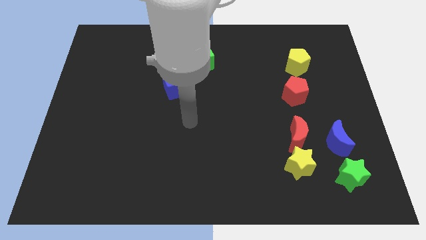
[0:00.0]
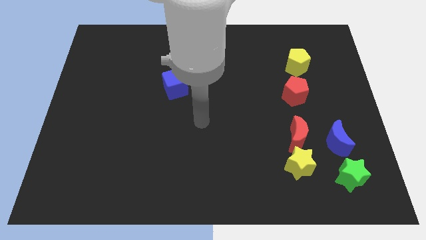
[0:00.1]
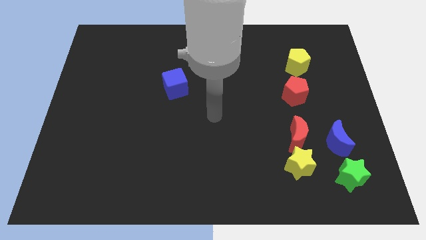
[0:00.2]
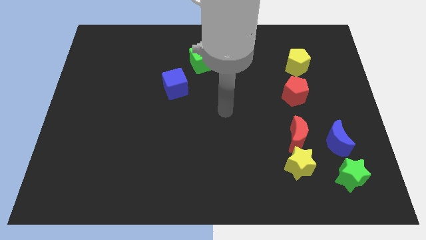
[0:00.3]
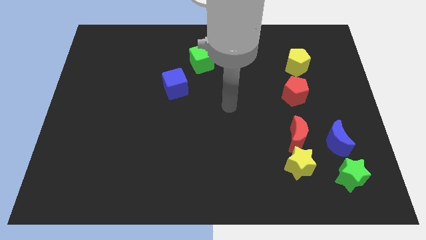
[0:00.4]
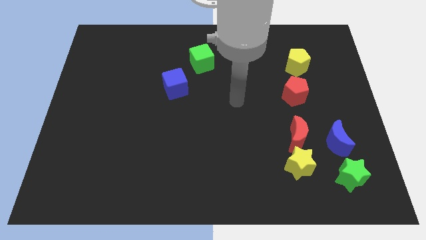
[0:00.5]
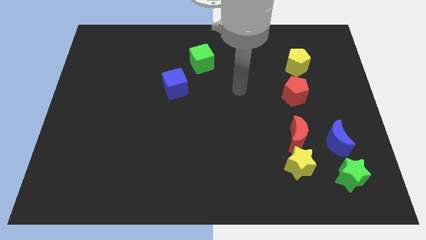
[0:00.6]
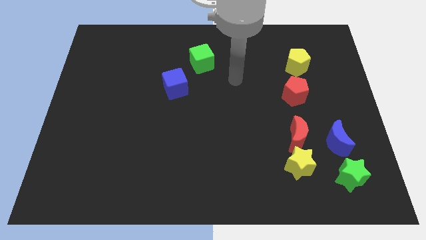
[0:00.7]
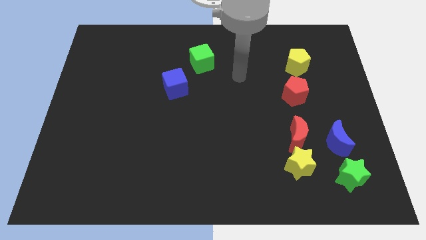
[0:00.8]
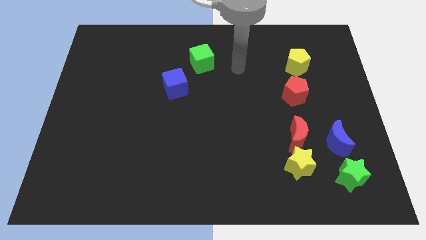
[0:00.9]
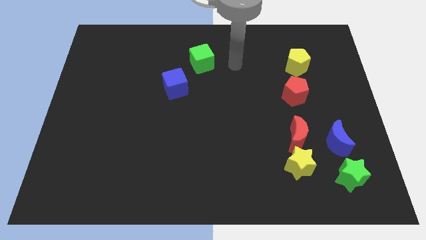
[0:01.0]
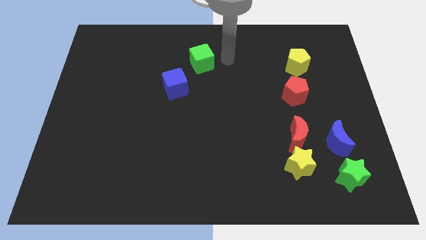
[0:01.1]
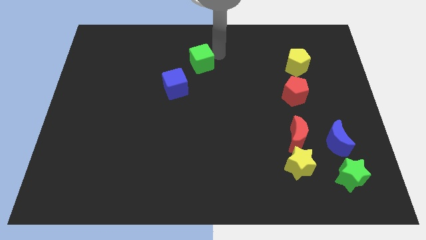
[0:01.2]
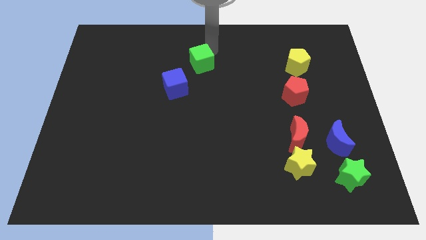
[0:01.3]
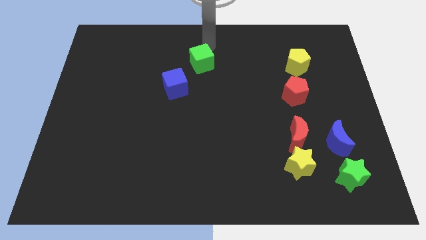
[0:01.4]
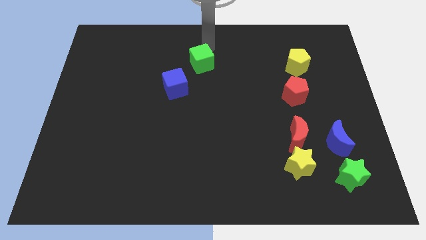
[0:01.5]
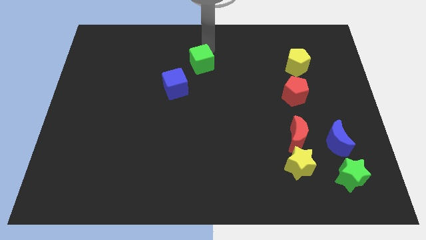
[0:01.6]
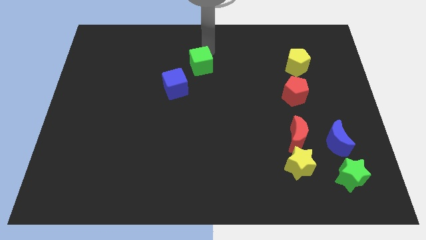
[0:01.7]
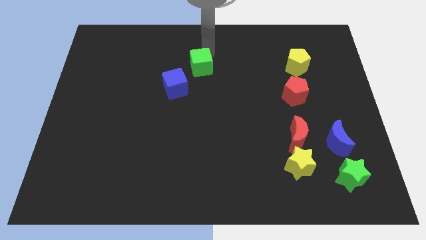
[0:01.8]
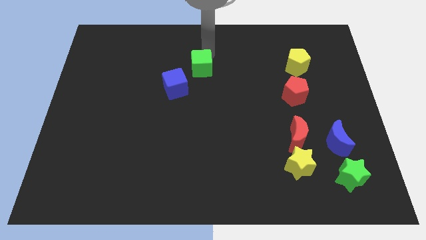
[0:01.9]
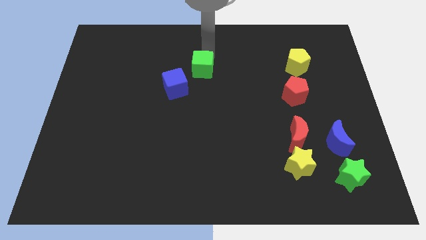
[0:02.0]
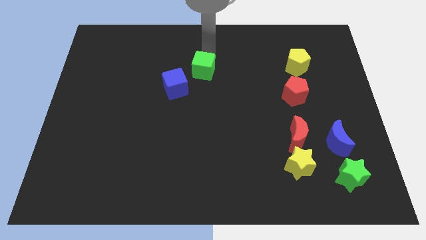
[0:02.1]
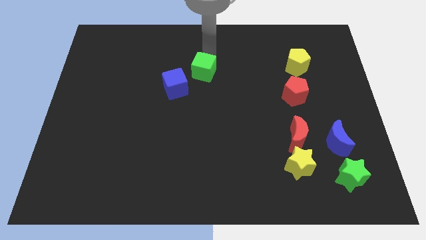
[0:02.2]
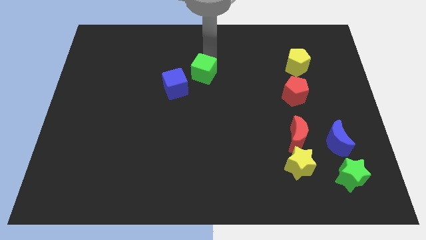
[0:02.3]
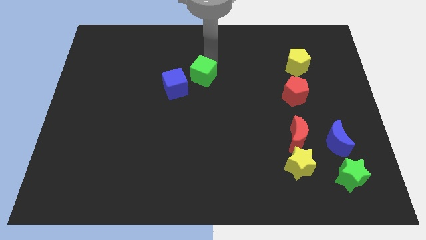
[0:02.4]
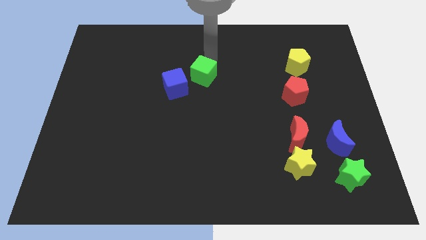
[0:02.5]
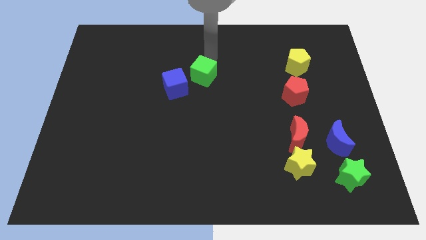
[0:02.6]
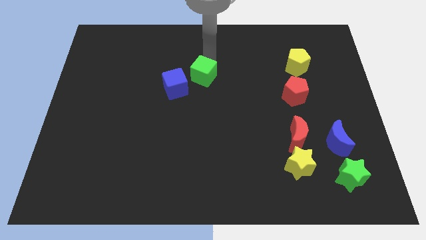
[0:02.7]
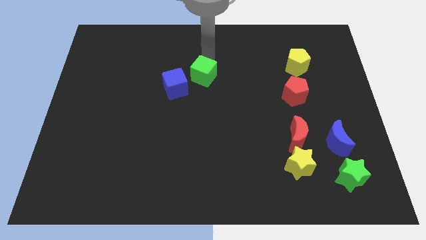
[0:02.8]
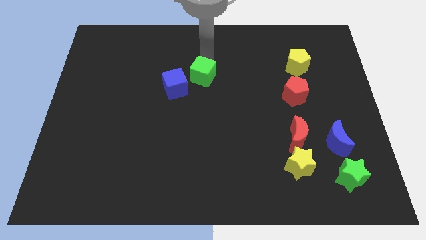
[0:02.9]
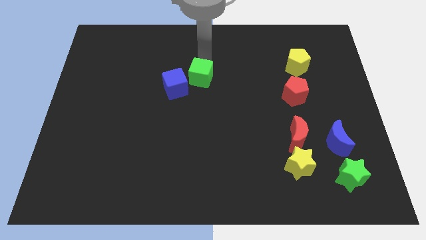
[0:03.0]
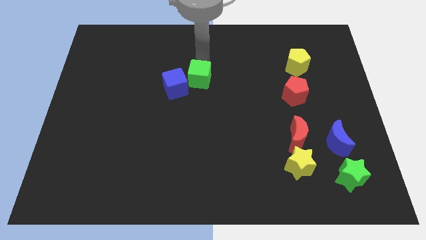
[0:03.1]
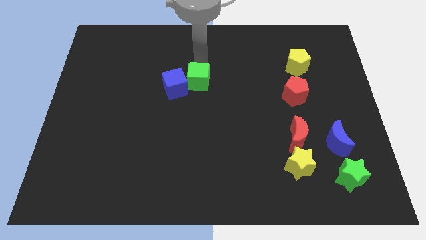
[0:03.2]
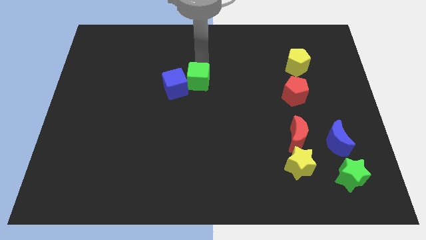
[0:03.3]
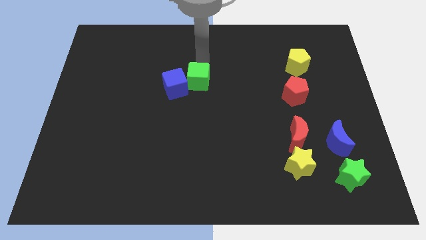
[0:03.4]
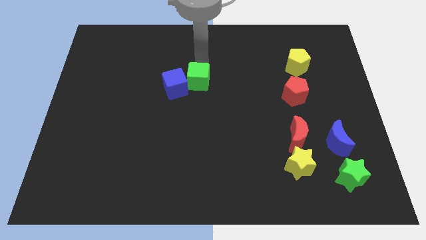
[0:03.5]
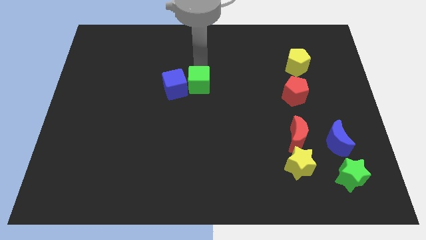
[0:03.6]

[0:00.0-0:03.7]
slide the green cube down somewhat

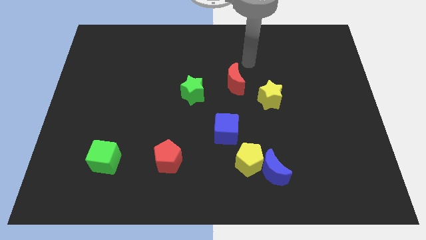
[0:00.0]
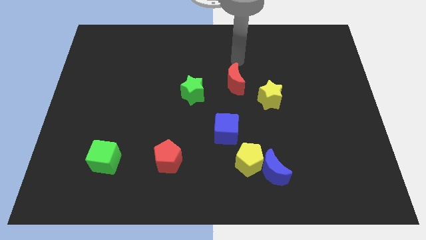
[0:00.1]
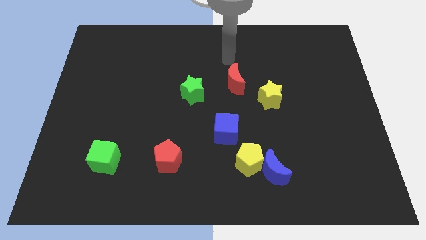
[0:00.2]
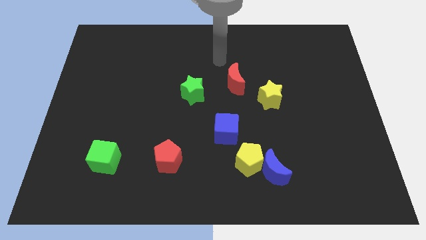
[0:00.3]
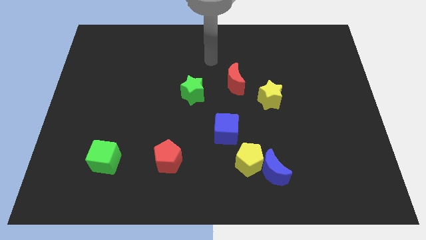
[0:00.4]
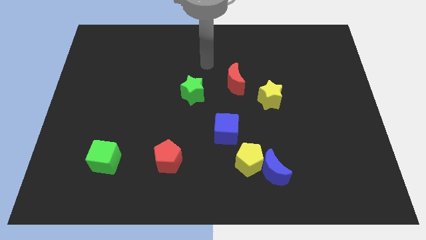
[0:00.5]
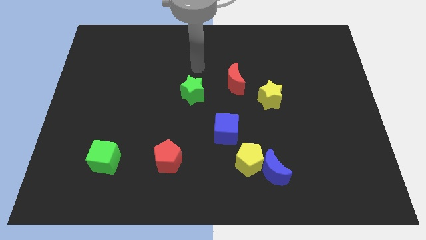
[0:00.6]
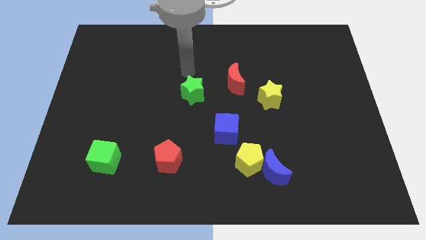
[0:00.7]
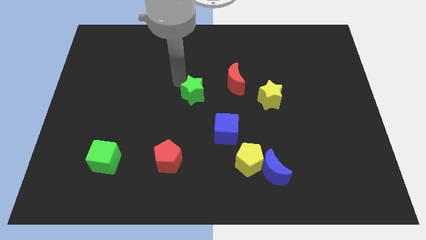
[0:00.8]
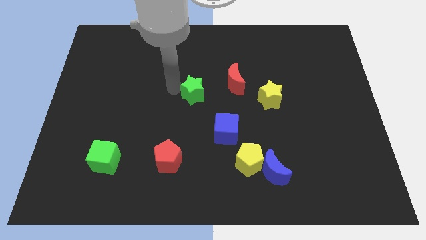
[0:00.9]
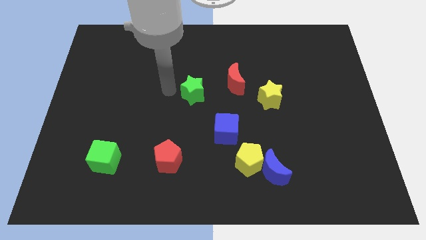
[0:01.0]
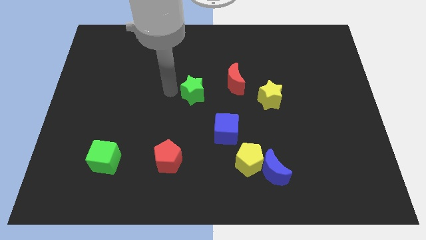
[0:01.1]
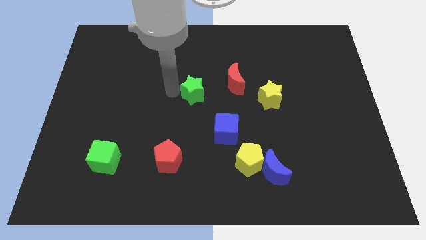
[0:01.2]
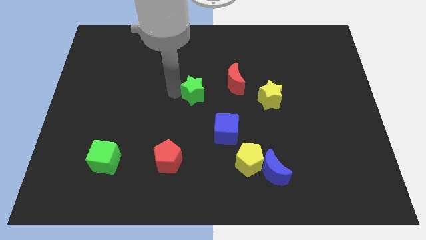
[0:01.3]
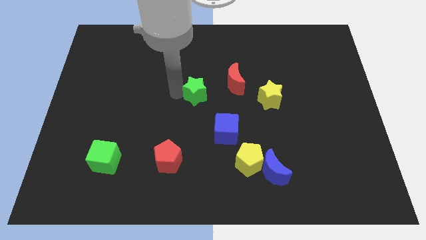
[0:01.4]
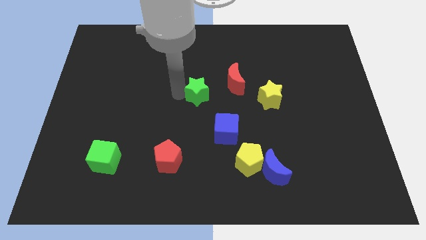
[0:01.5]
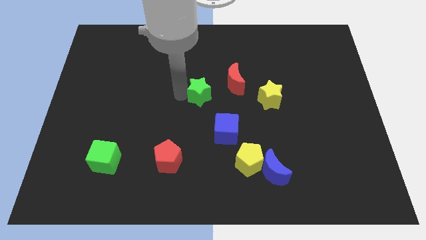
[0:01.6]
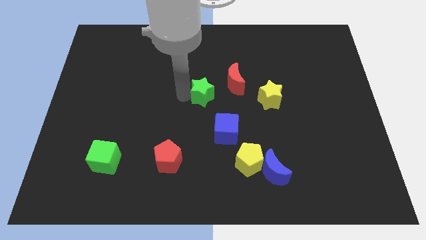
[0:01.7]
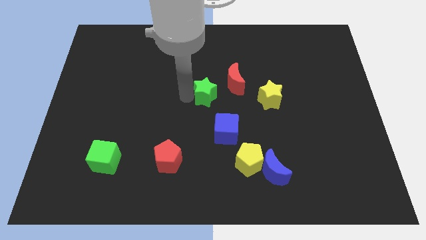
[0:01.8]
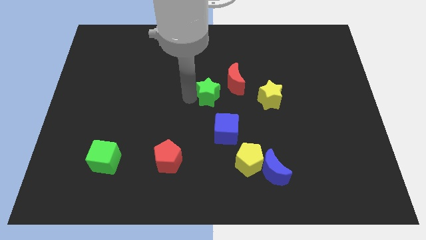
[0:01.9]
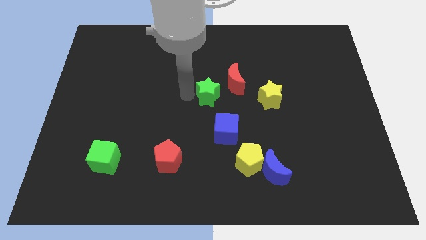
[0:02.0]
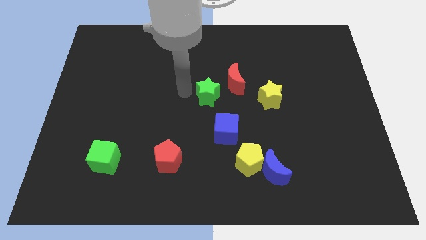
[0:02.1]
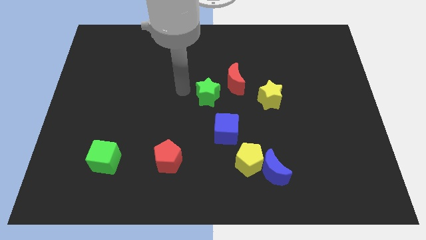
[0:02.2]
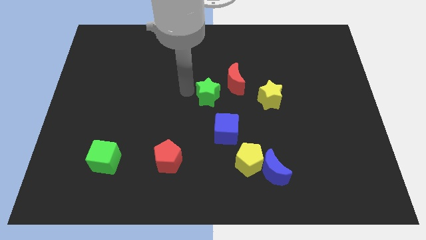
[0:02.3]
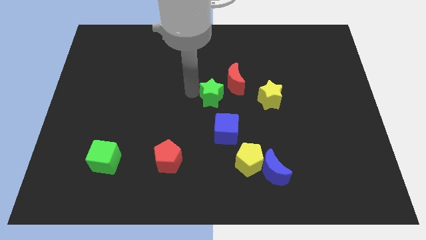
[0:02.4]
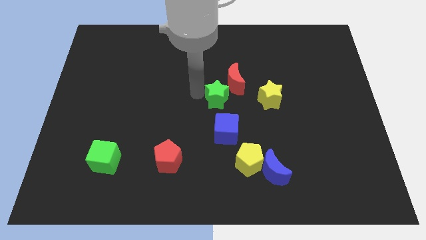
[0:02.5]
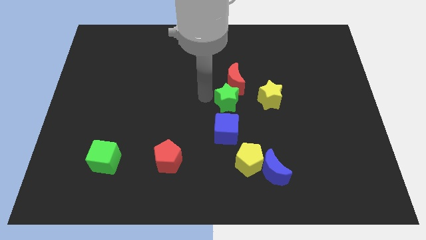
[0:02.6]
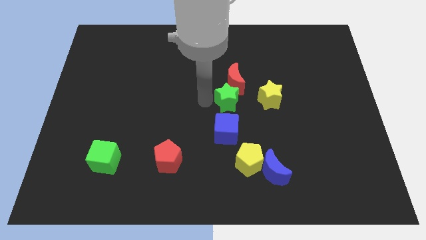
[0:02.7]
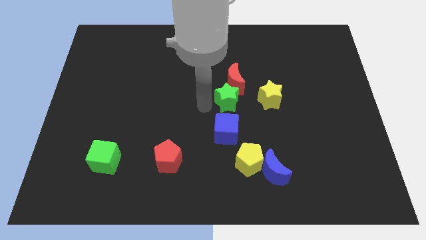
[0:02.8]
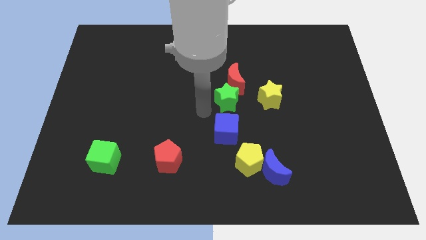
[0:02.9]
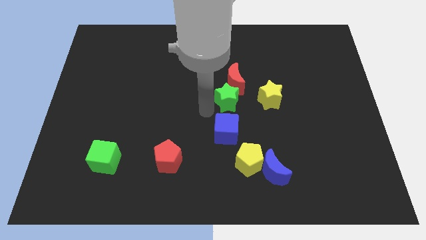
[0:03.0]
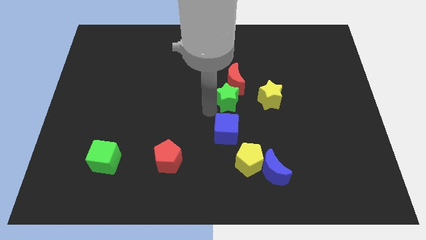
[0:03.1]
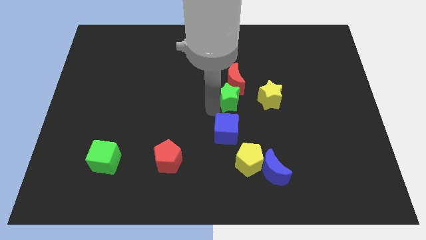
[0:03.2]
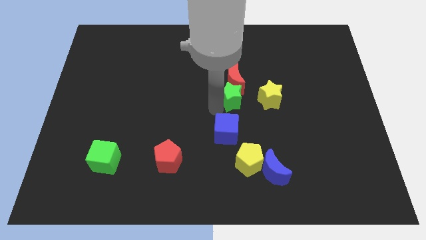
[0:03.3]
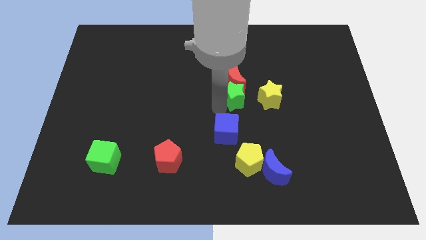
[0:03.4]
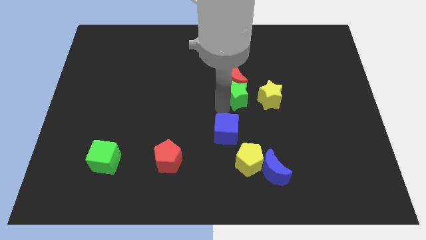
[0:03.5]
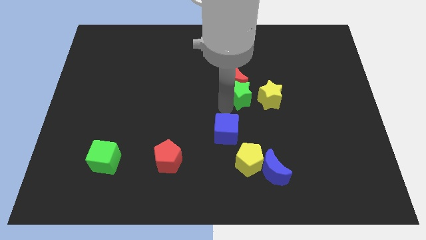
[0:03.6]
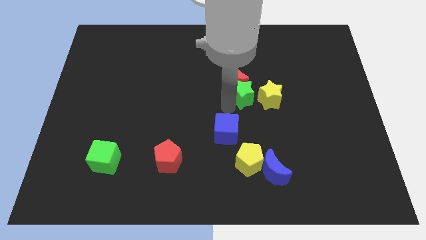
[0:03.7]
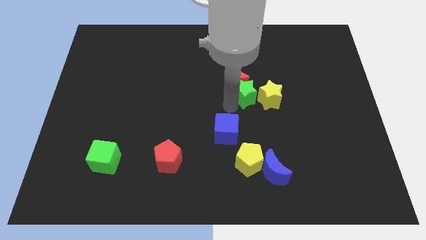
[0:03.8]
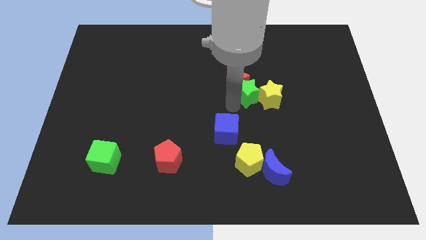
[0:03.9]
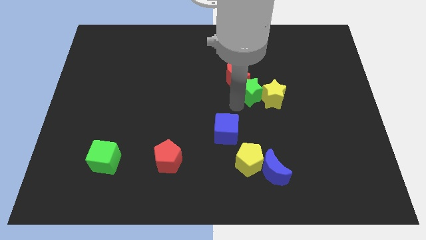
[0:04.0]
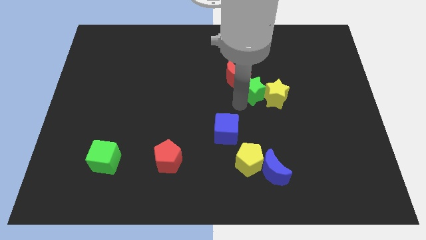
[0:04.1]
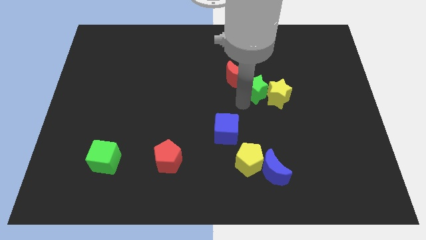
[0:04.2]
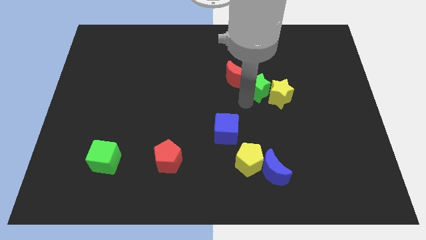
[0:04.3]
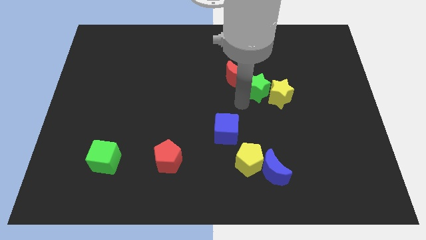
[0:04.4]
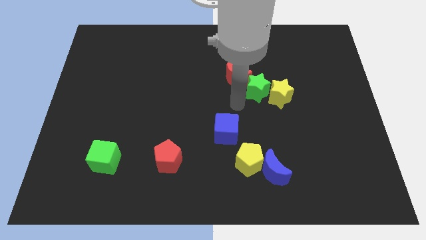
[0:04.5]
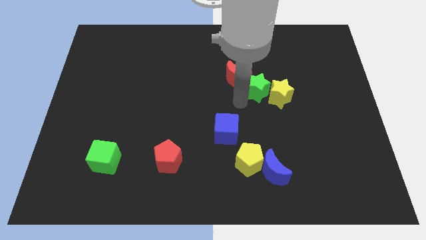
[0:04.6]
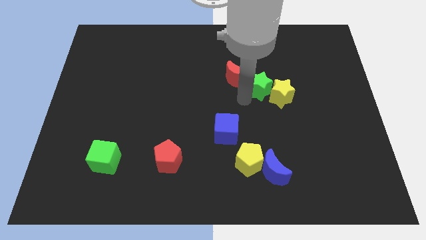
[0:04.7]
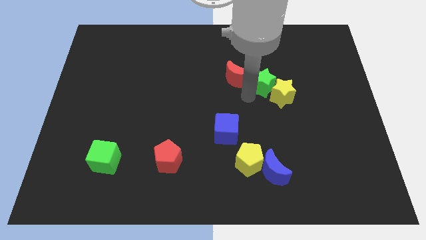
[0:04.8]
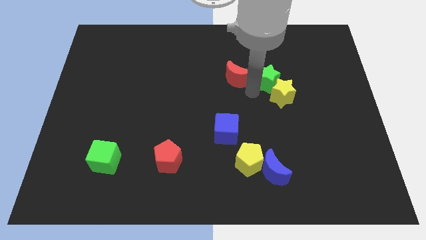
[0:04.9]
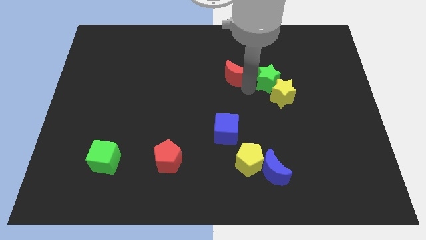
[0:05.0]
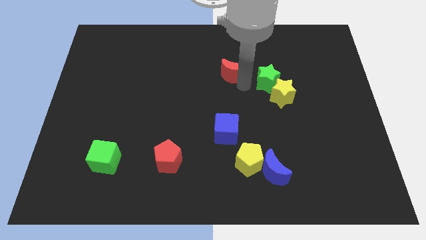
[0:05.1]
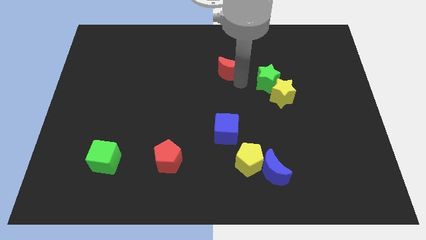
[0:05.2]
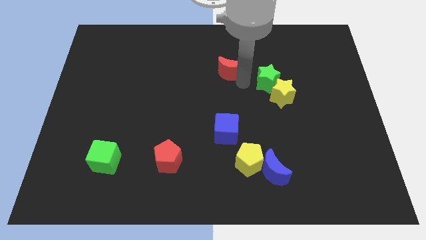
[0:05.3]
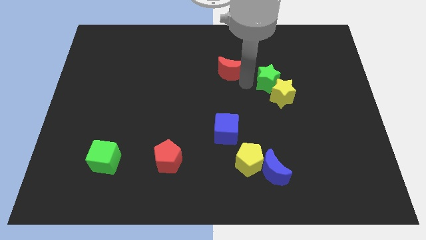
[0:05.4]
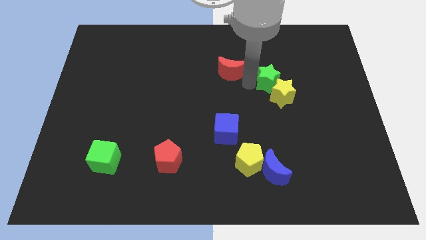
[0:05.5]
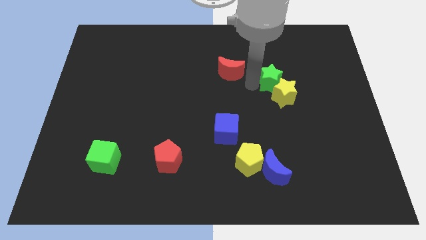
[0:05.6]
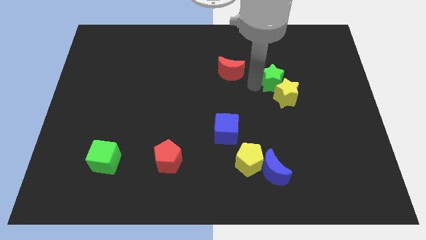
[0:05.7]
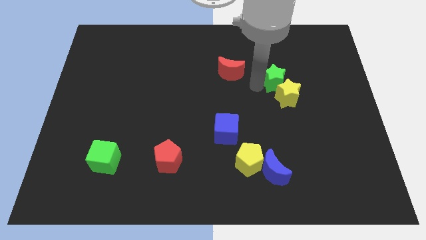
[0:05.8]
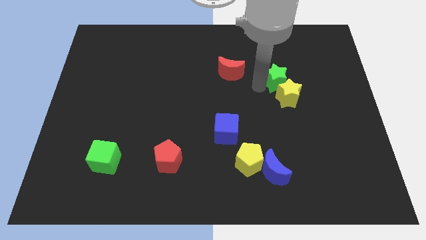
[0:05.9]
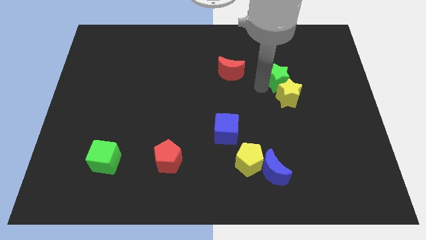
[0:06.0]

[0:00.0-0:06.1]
slide the green star right
